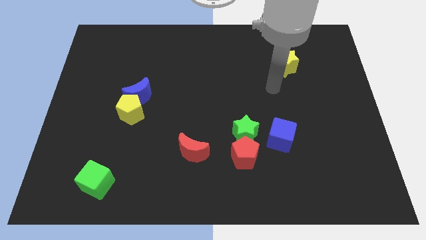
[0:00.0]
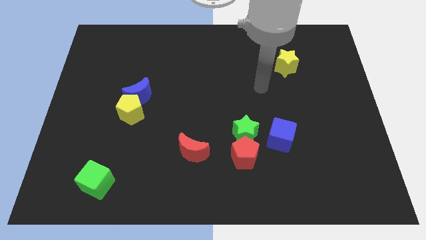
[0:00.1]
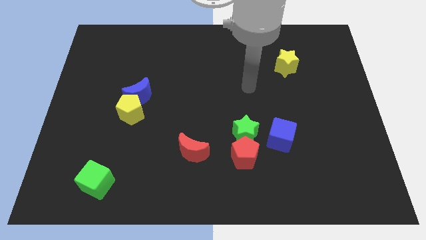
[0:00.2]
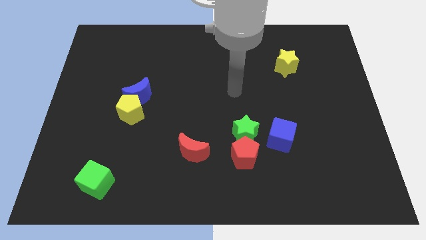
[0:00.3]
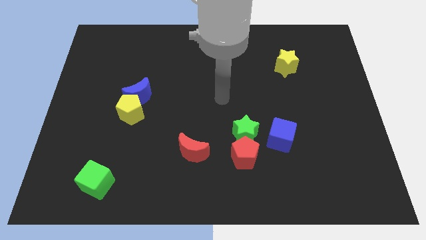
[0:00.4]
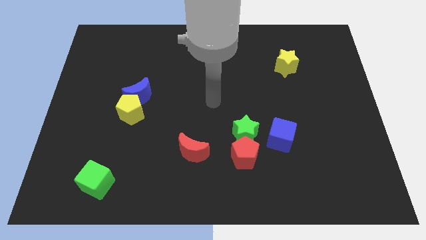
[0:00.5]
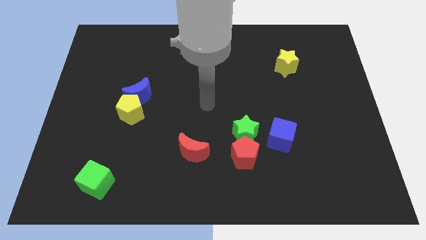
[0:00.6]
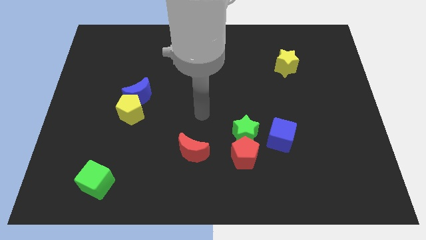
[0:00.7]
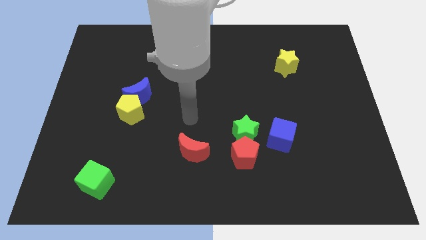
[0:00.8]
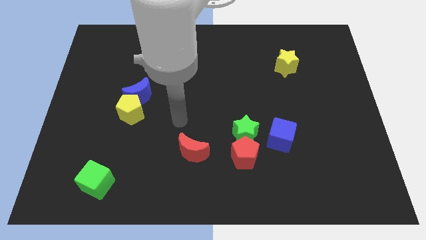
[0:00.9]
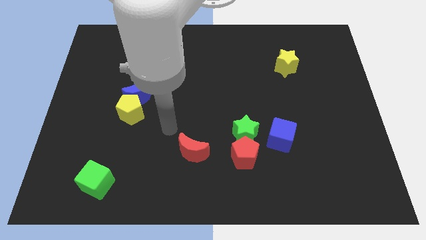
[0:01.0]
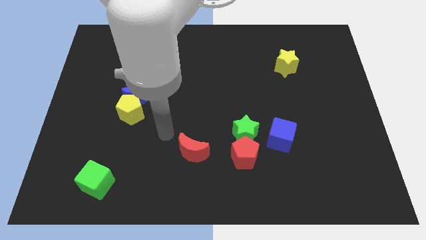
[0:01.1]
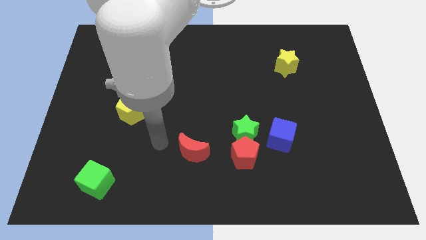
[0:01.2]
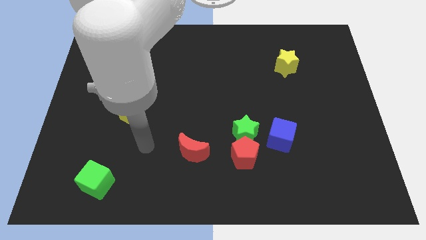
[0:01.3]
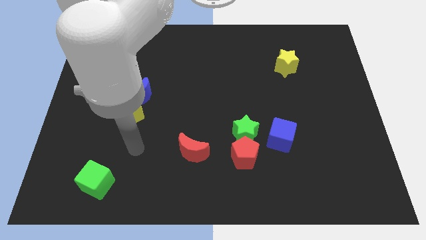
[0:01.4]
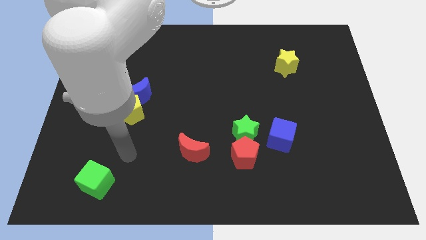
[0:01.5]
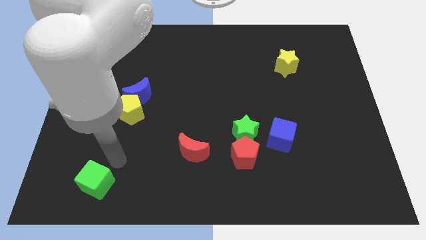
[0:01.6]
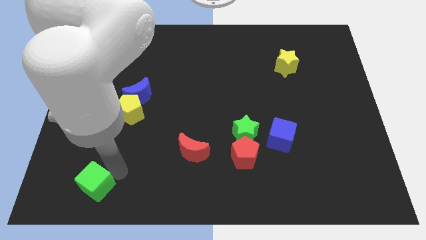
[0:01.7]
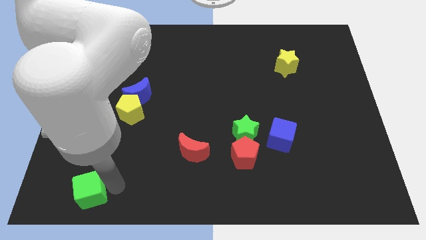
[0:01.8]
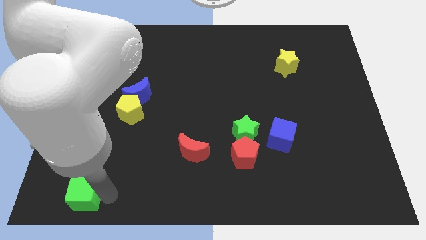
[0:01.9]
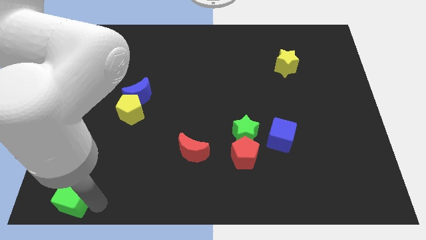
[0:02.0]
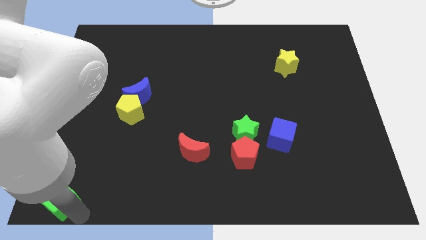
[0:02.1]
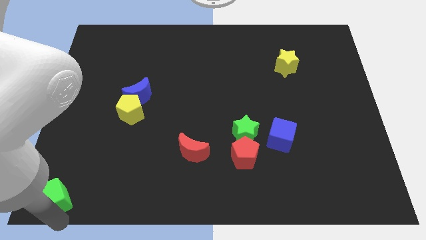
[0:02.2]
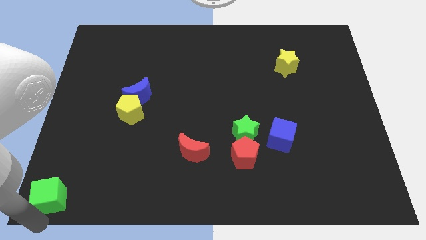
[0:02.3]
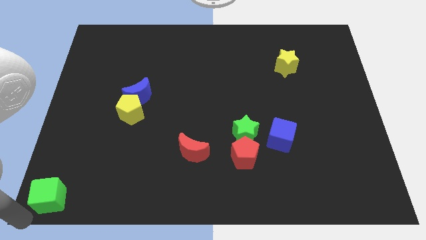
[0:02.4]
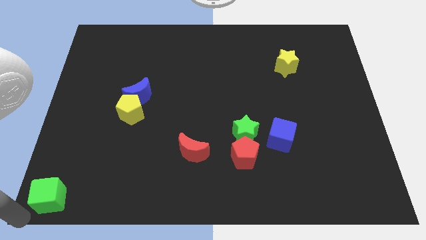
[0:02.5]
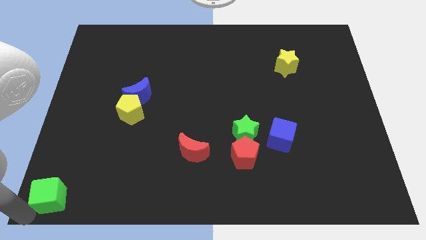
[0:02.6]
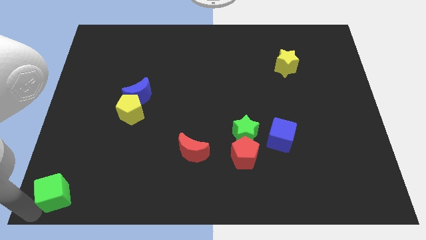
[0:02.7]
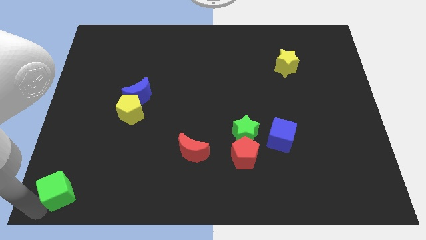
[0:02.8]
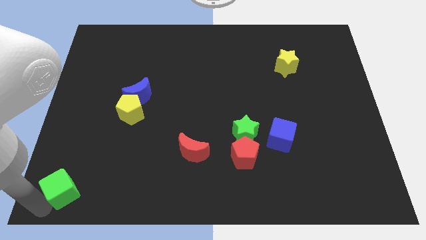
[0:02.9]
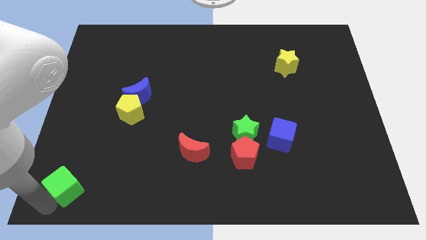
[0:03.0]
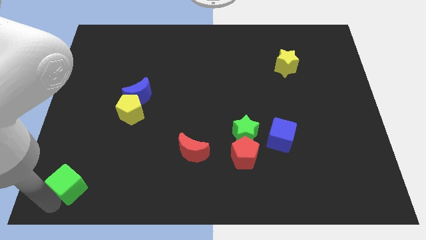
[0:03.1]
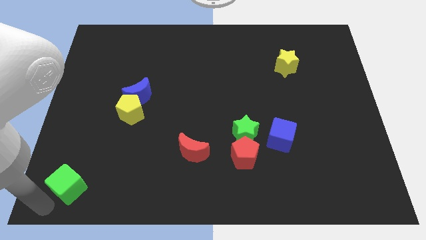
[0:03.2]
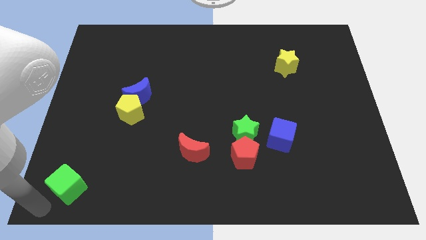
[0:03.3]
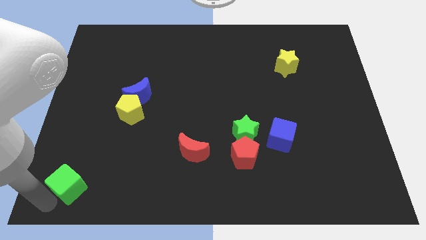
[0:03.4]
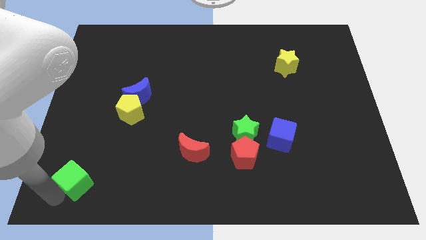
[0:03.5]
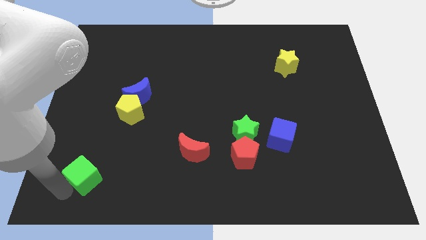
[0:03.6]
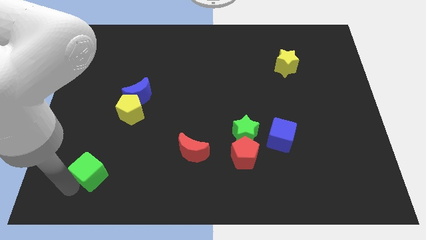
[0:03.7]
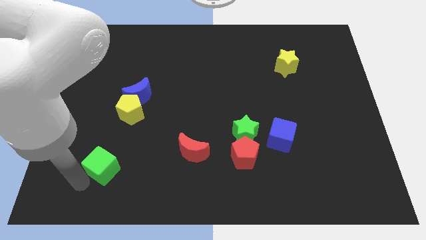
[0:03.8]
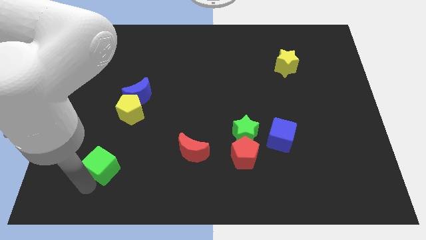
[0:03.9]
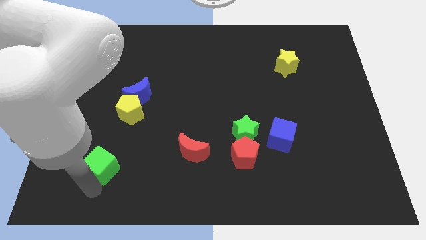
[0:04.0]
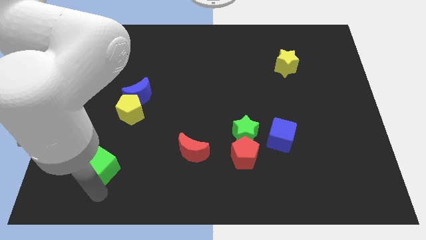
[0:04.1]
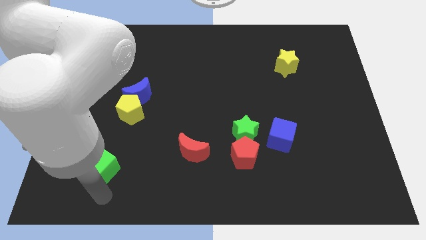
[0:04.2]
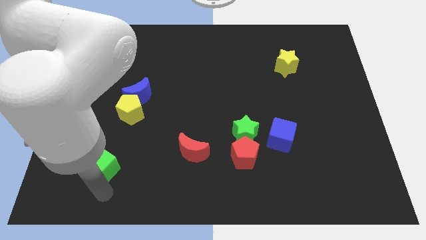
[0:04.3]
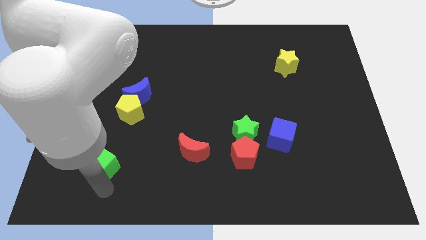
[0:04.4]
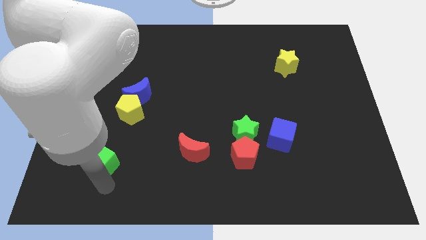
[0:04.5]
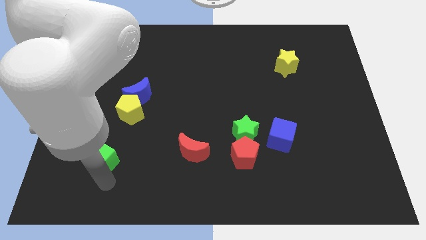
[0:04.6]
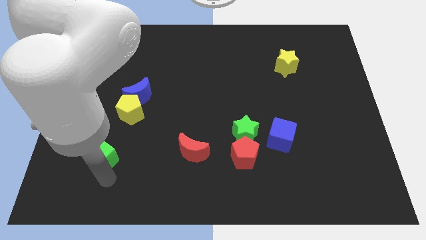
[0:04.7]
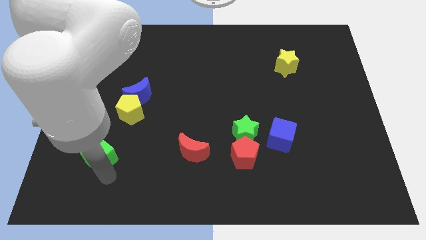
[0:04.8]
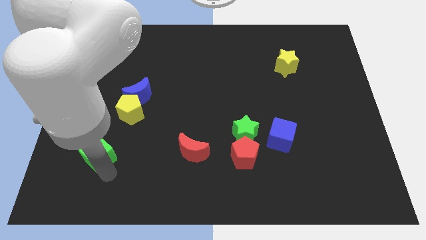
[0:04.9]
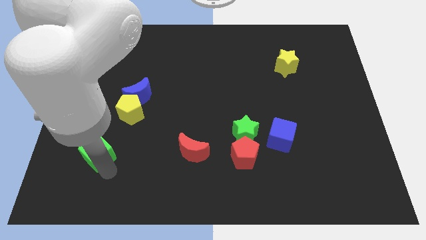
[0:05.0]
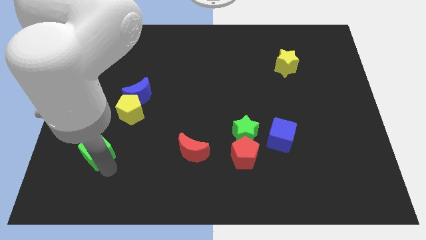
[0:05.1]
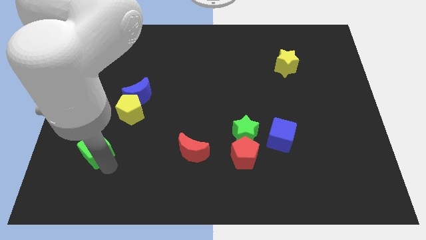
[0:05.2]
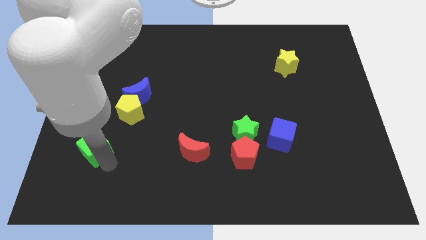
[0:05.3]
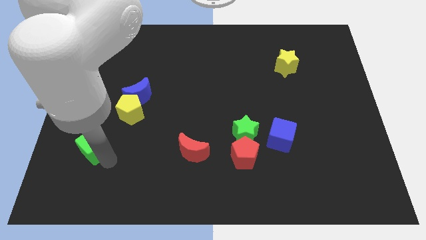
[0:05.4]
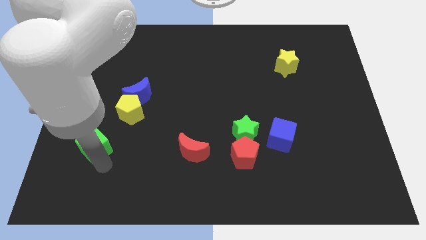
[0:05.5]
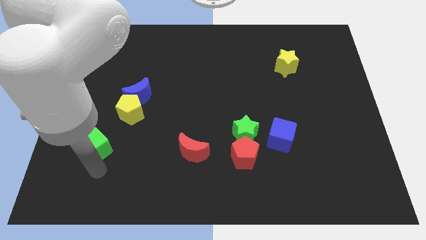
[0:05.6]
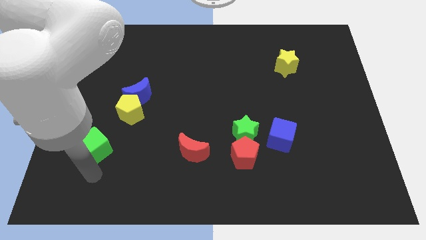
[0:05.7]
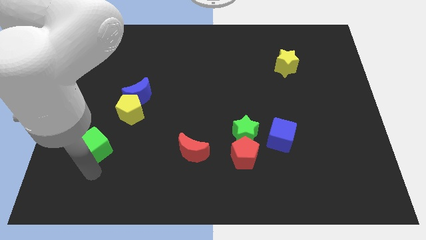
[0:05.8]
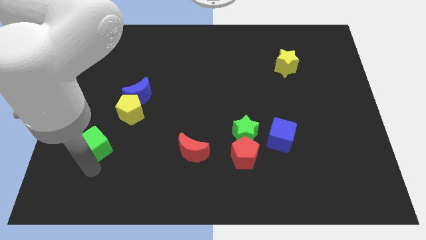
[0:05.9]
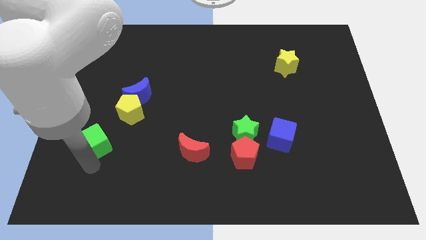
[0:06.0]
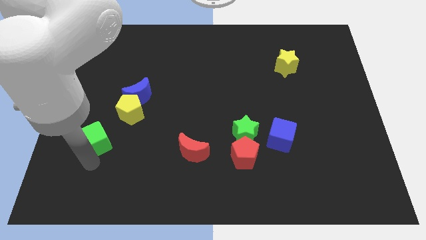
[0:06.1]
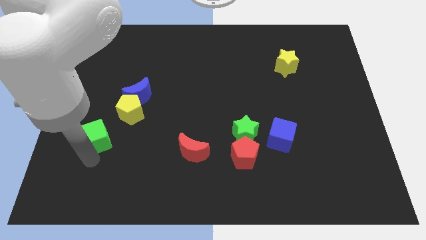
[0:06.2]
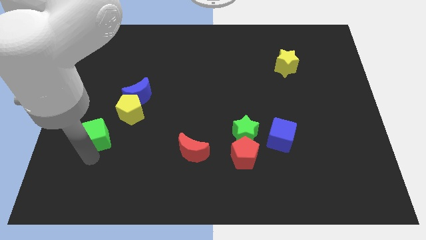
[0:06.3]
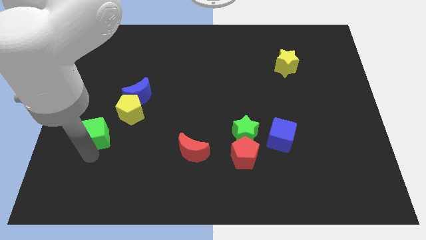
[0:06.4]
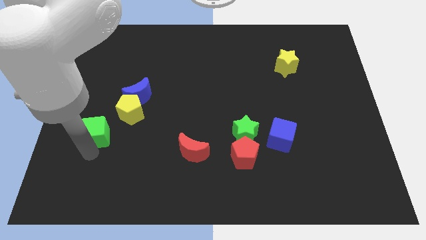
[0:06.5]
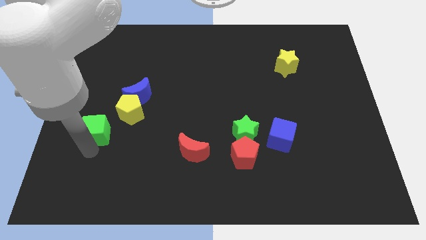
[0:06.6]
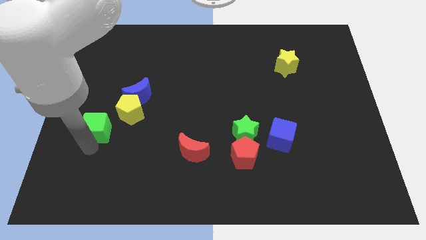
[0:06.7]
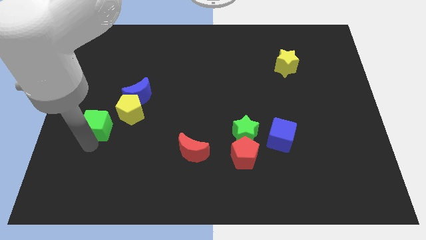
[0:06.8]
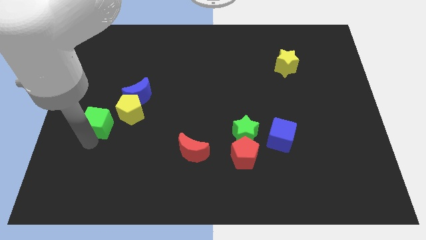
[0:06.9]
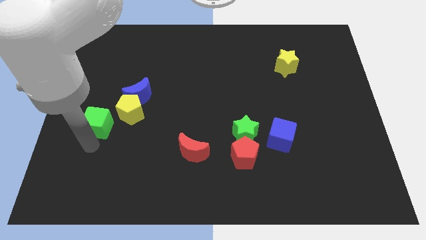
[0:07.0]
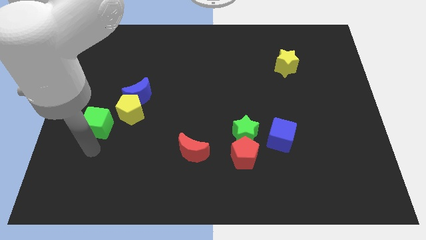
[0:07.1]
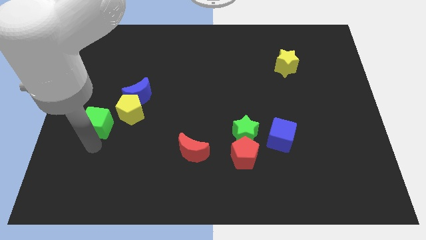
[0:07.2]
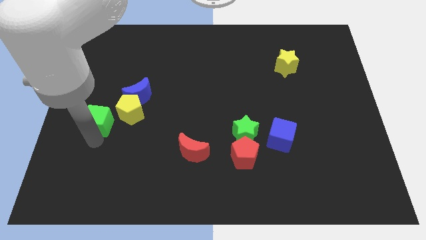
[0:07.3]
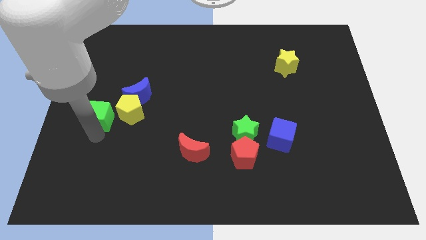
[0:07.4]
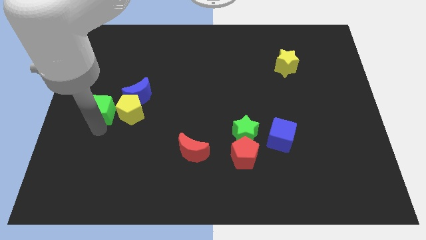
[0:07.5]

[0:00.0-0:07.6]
push the green cube to the left of the blue moon
